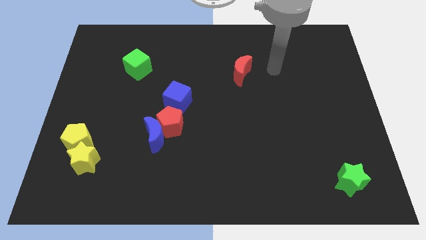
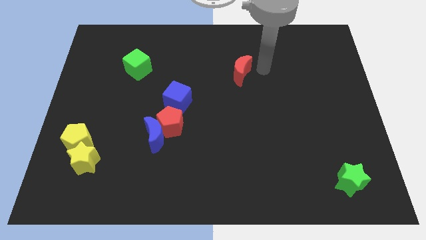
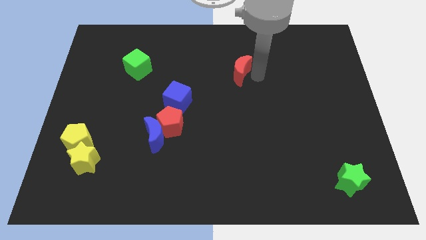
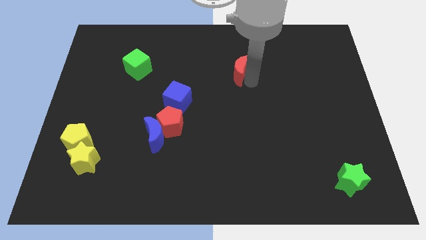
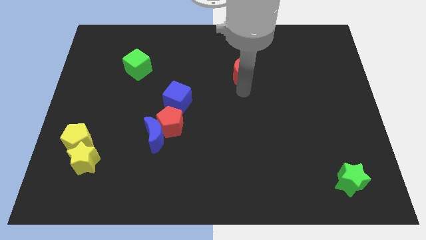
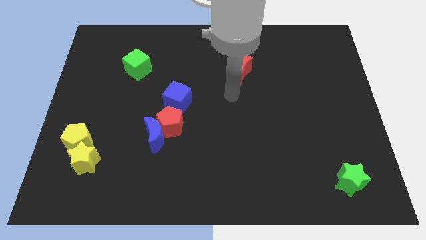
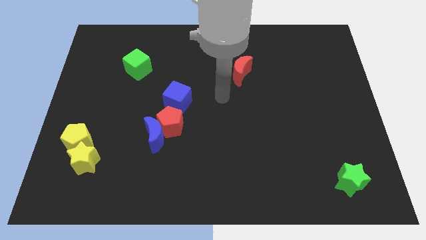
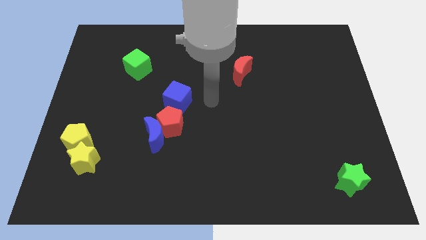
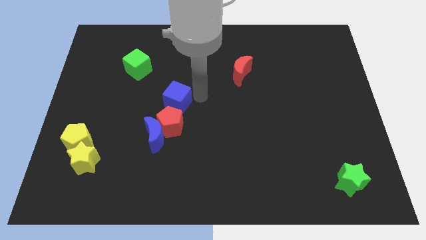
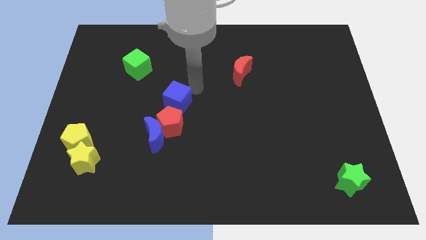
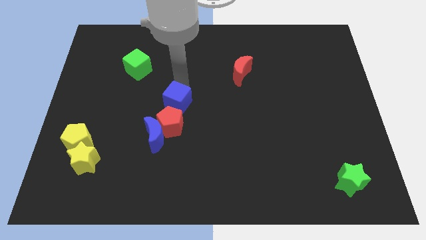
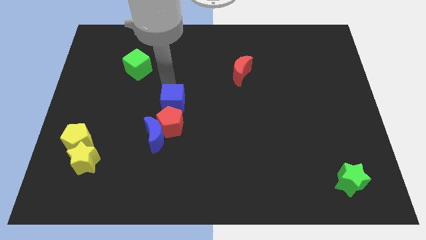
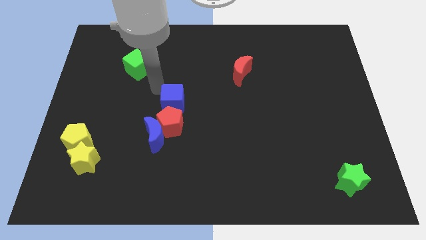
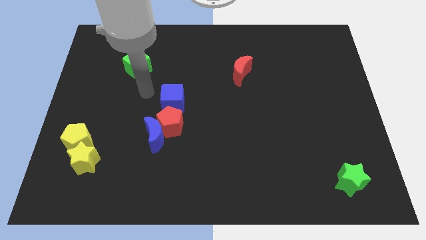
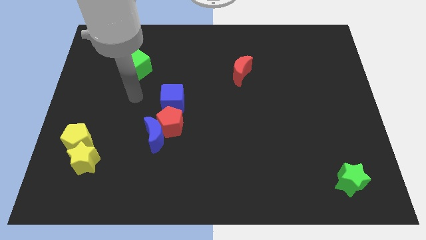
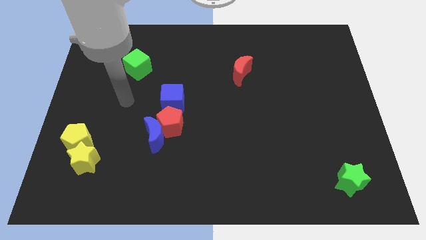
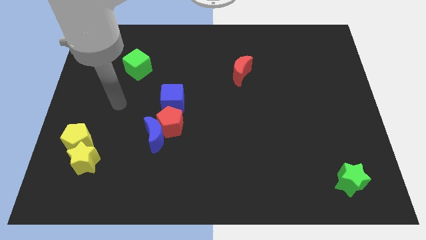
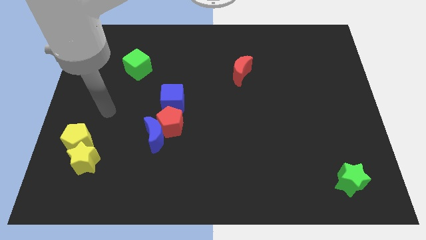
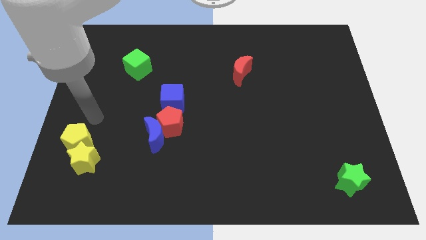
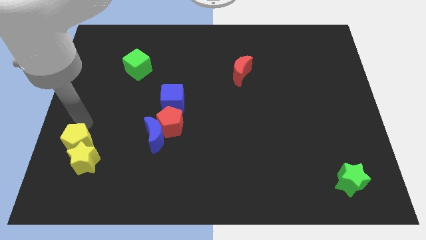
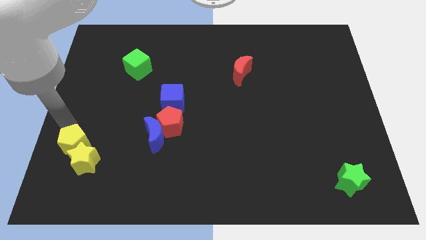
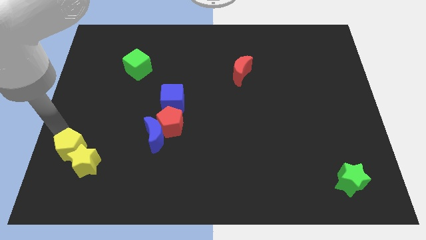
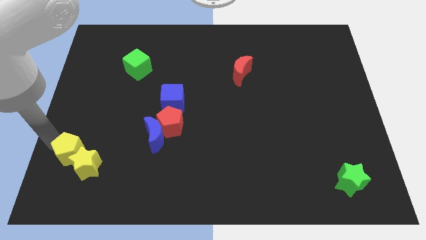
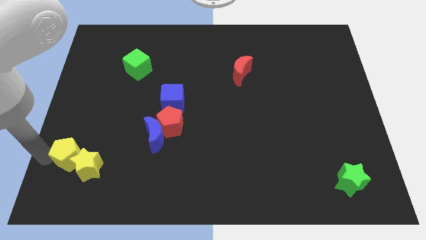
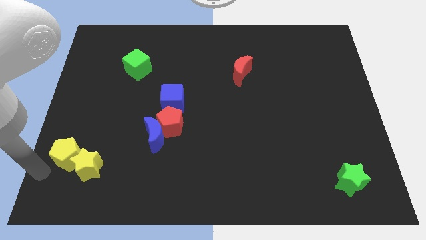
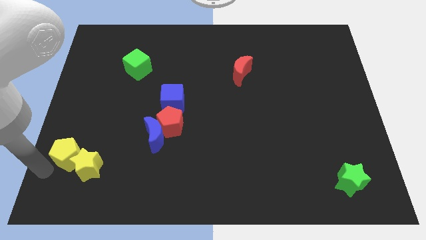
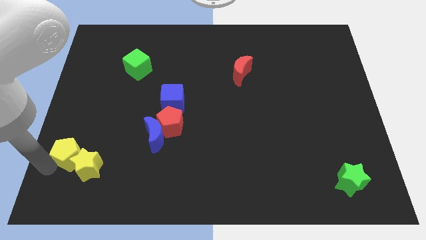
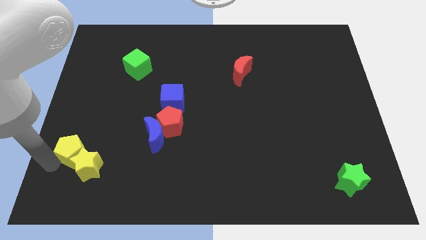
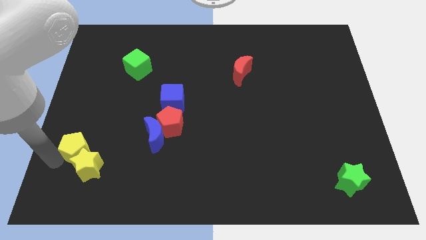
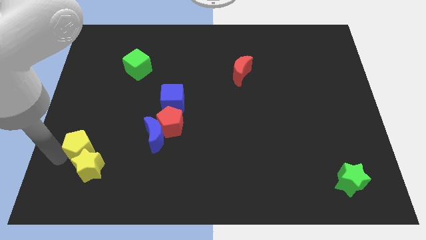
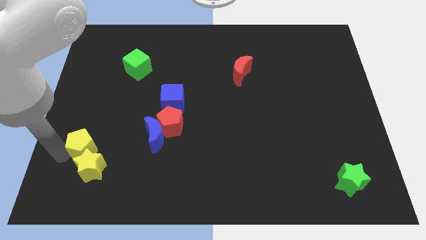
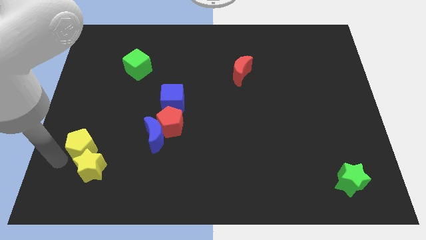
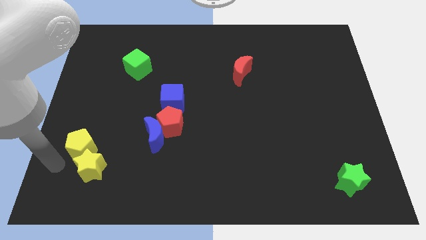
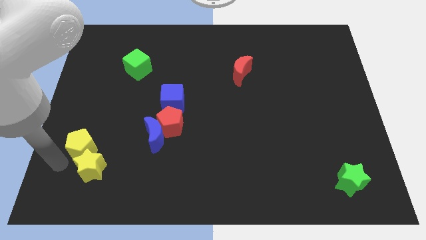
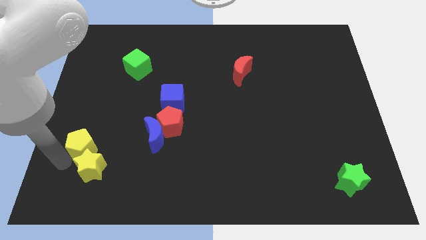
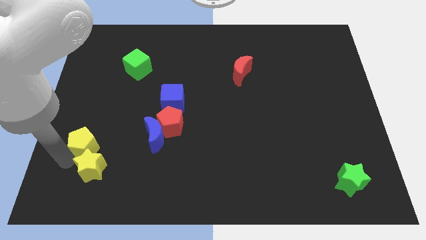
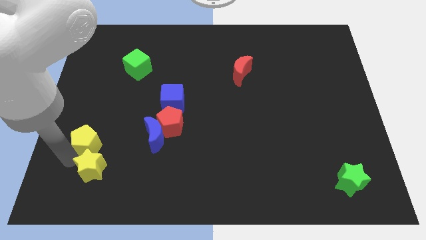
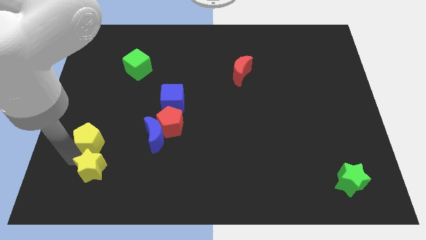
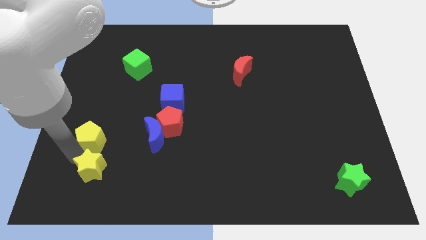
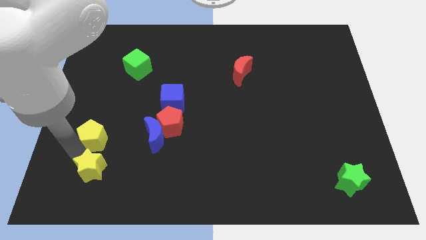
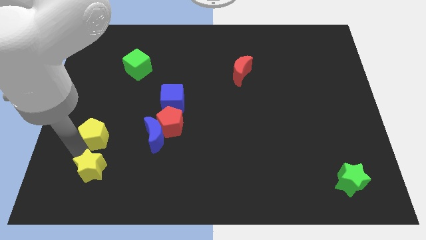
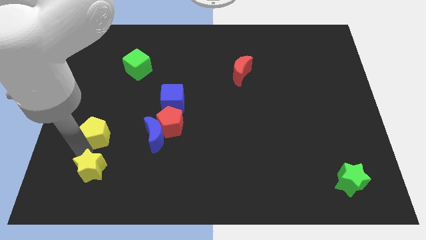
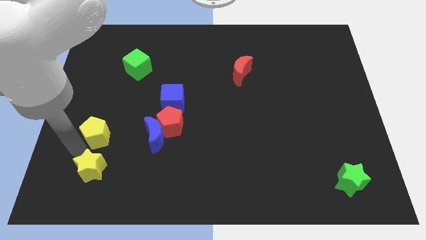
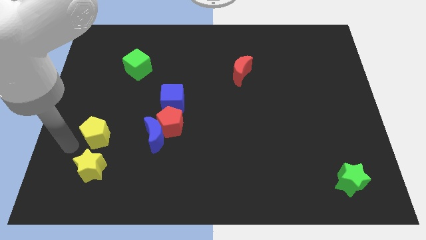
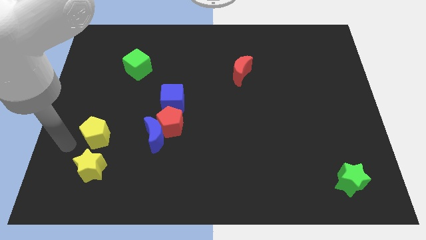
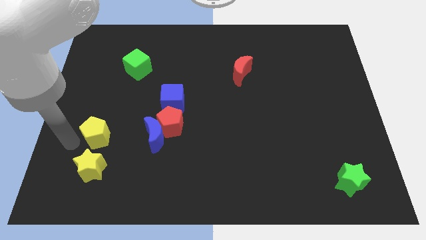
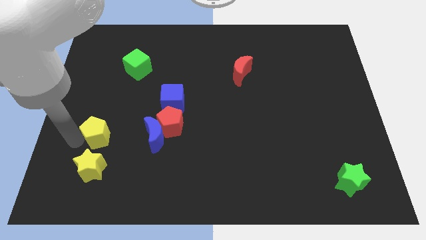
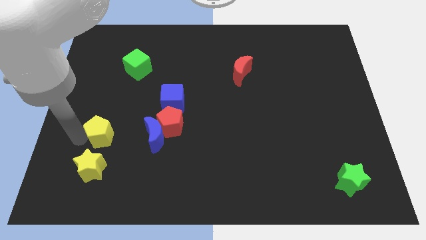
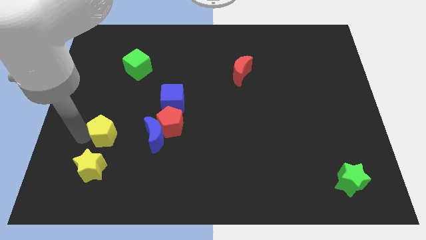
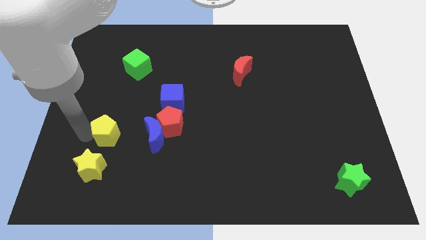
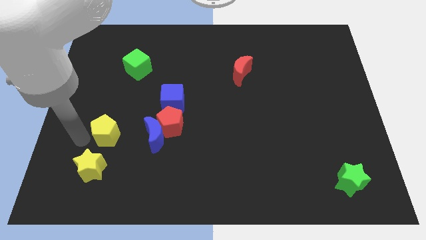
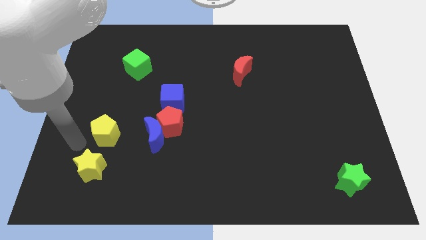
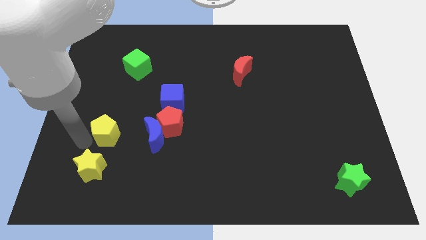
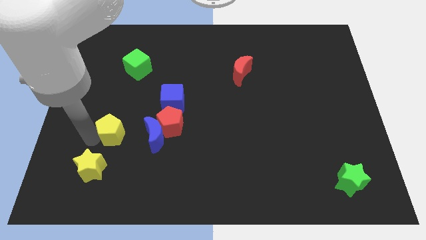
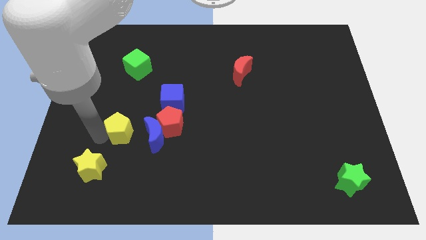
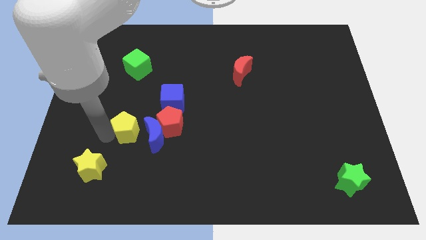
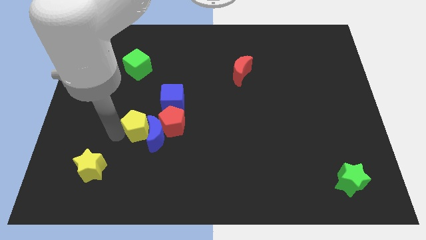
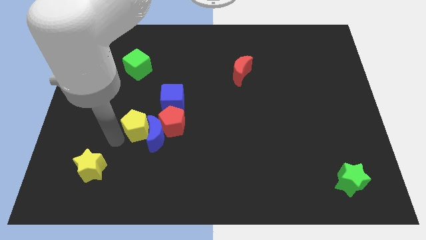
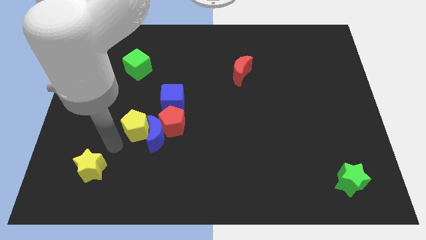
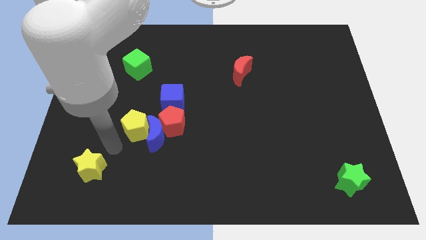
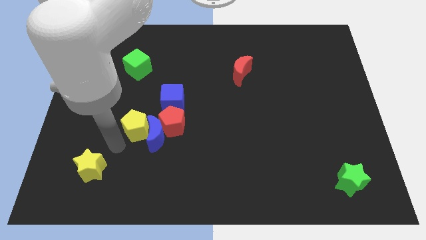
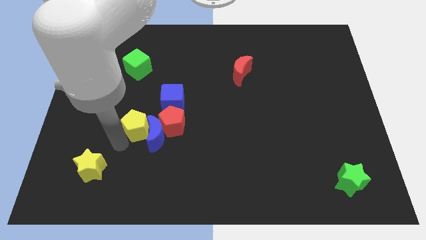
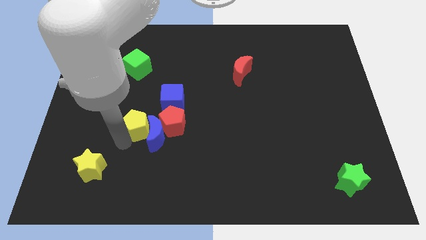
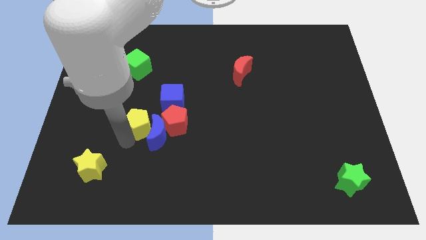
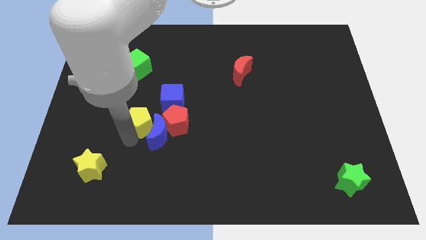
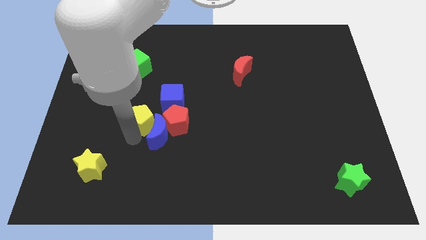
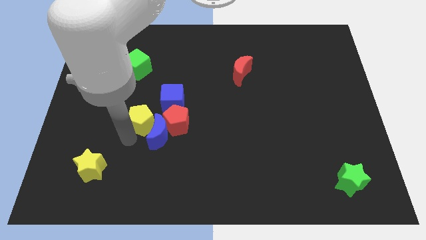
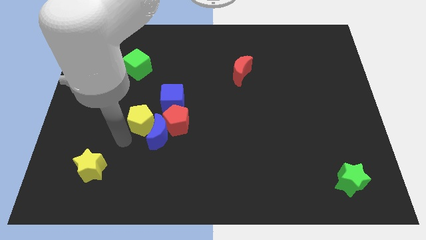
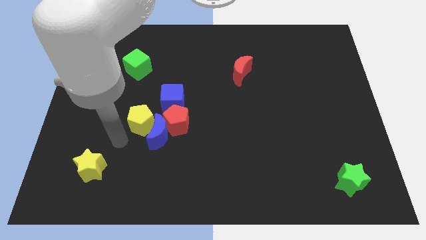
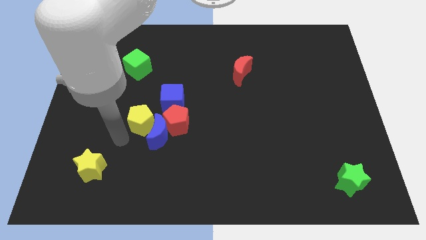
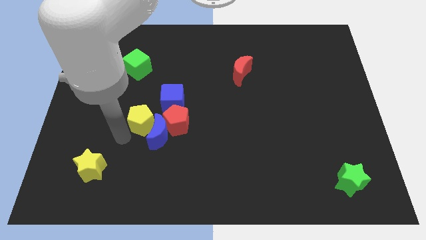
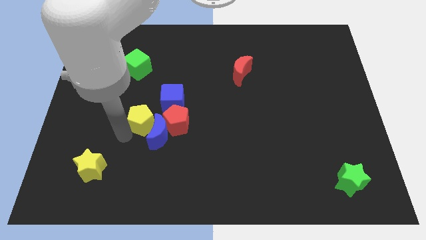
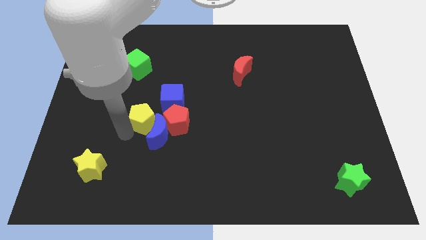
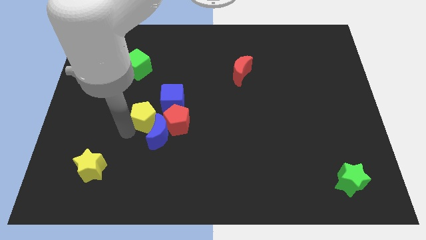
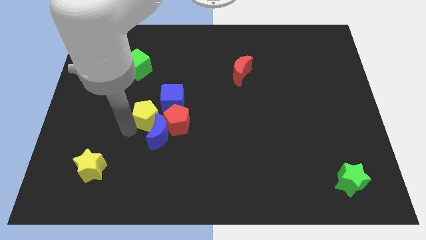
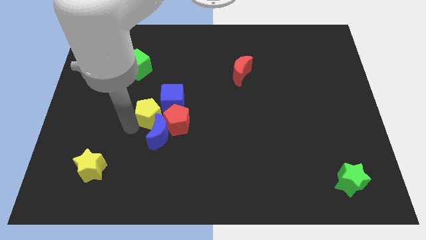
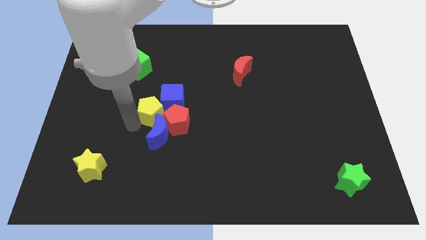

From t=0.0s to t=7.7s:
push the yellow pentagon towards the blue cube
